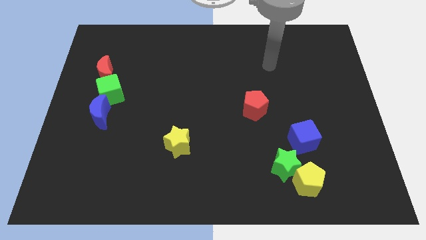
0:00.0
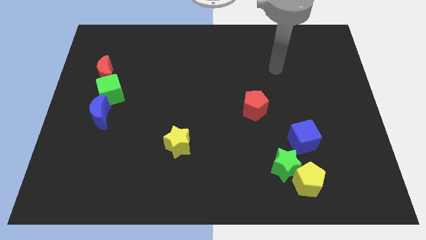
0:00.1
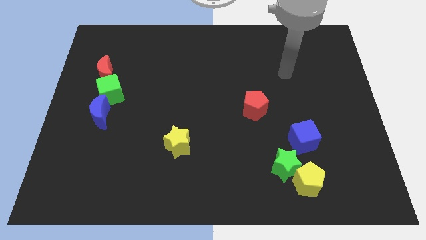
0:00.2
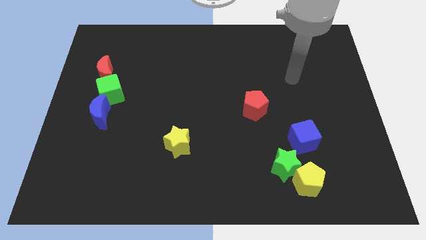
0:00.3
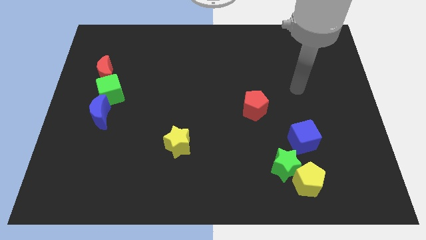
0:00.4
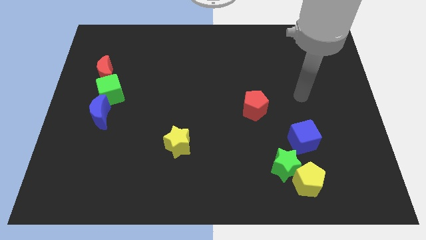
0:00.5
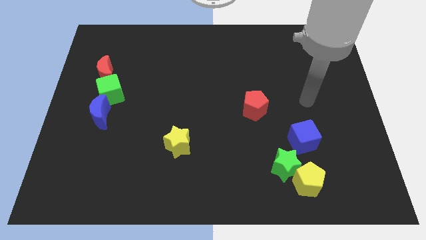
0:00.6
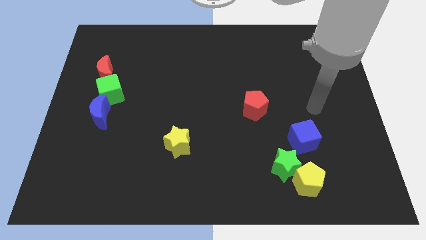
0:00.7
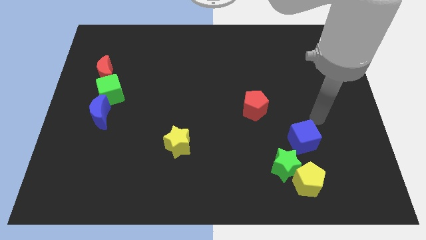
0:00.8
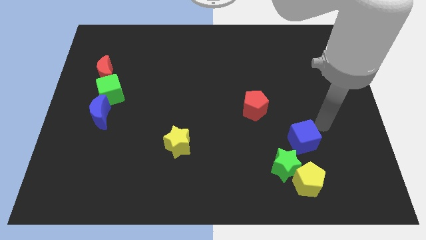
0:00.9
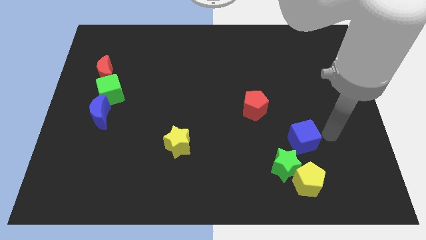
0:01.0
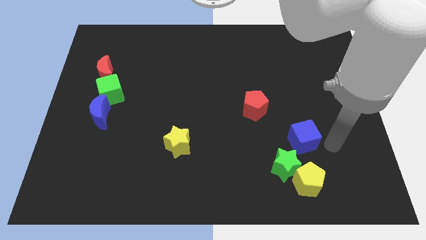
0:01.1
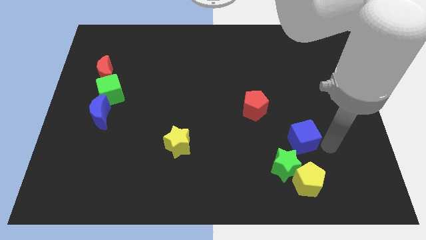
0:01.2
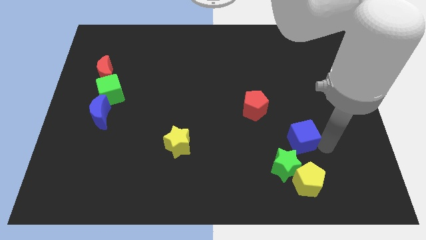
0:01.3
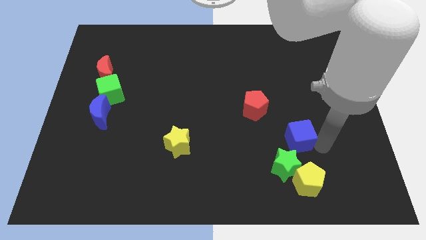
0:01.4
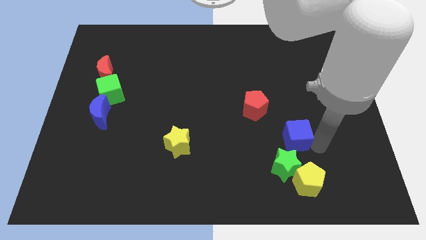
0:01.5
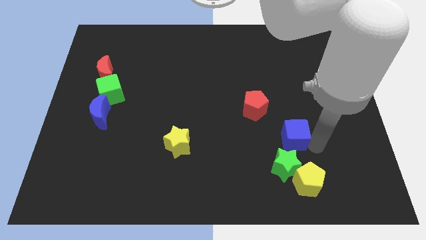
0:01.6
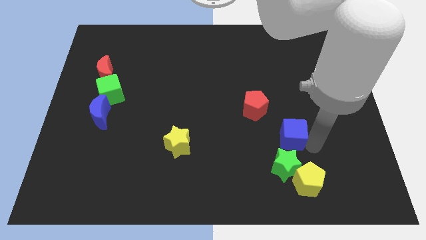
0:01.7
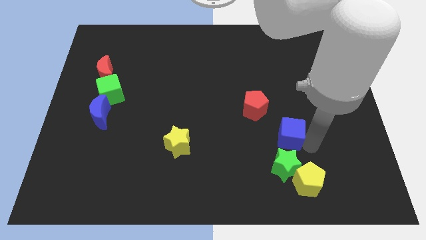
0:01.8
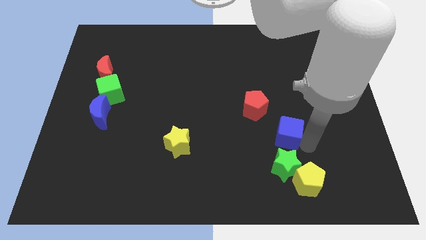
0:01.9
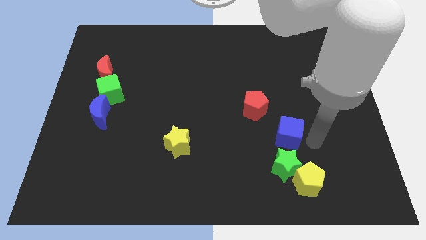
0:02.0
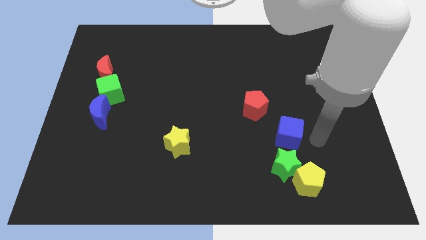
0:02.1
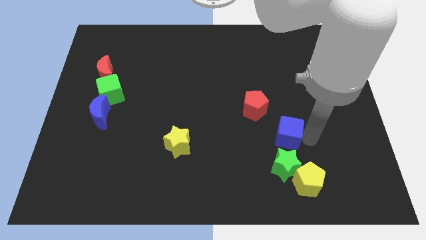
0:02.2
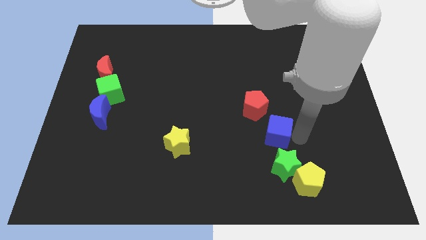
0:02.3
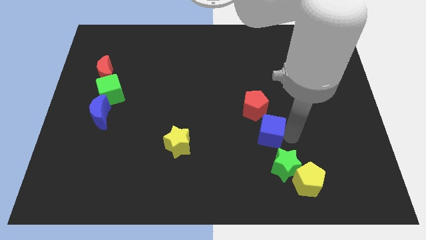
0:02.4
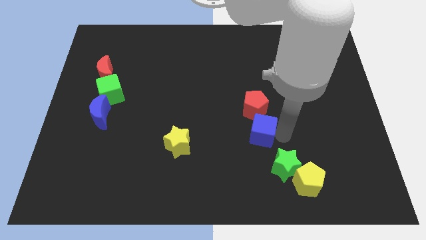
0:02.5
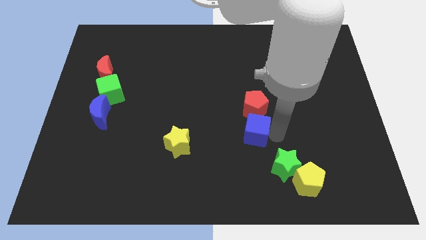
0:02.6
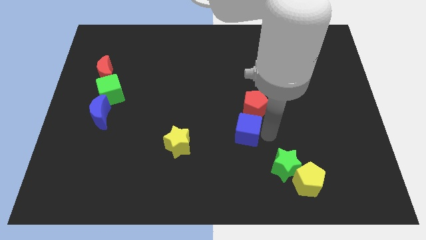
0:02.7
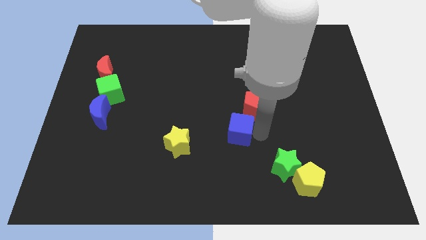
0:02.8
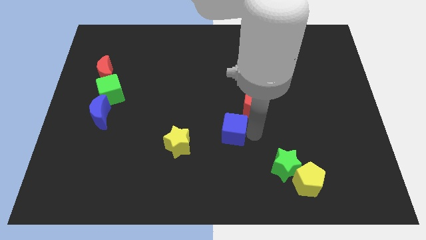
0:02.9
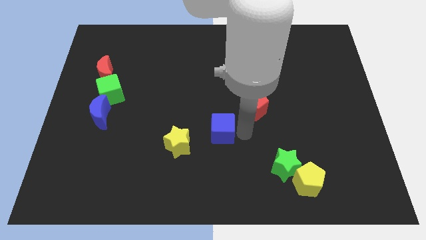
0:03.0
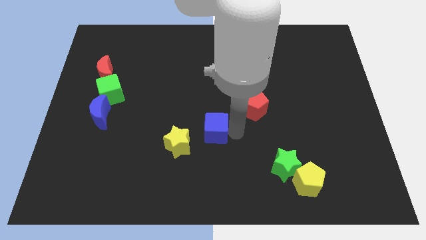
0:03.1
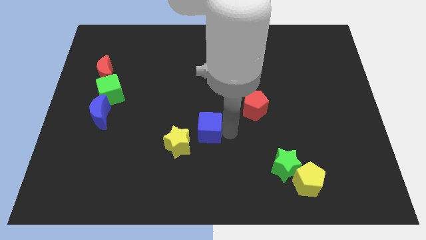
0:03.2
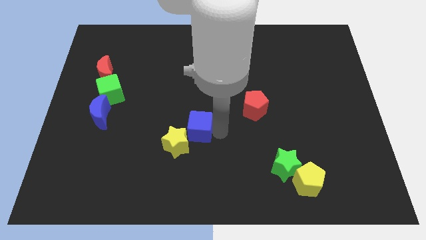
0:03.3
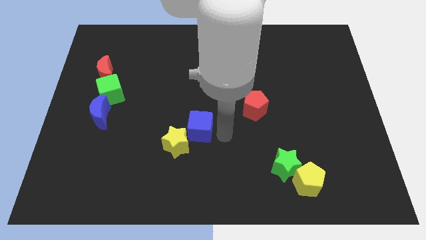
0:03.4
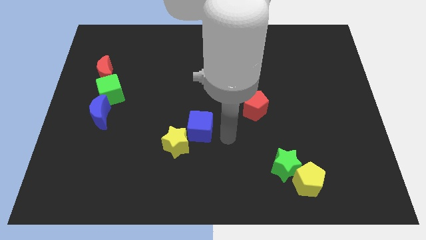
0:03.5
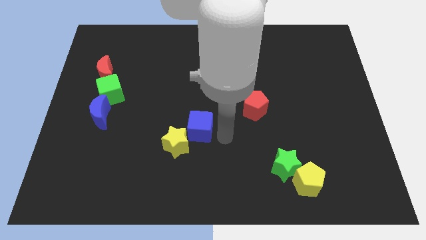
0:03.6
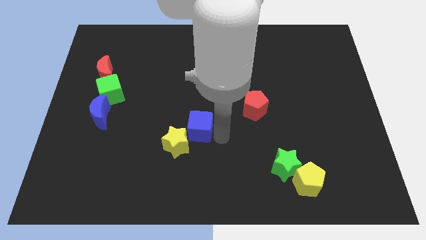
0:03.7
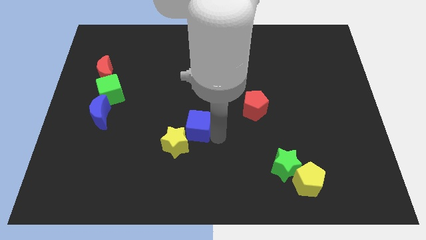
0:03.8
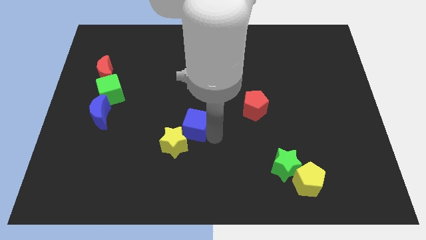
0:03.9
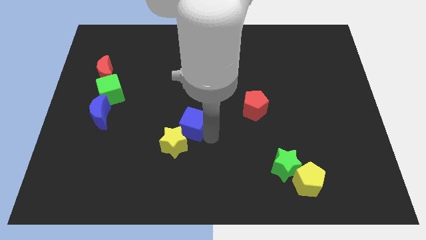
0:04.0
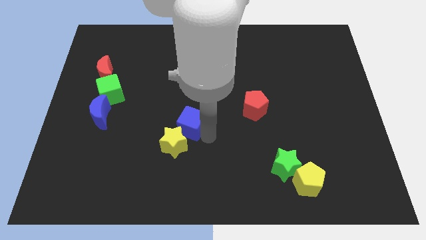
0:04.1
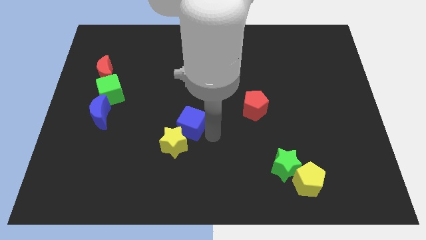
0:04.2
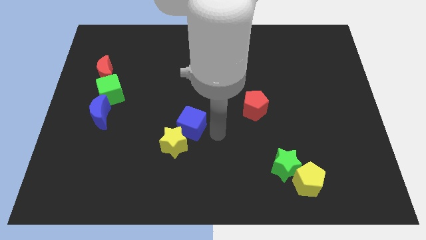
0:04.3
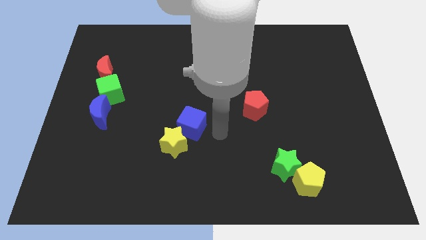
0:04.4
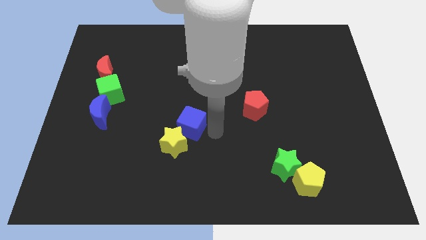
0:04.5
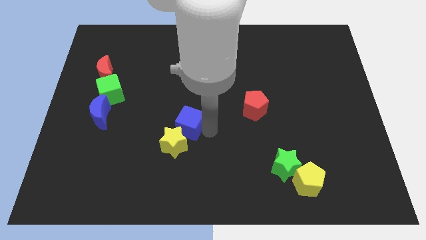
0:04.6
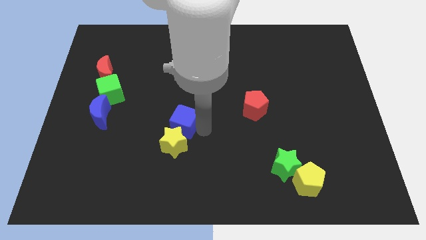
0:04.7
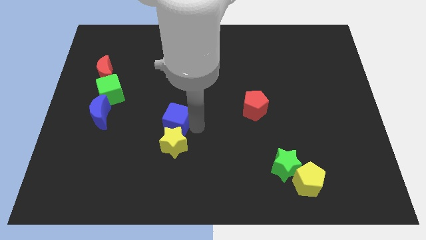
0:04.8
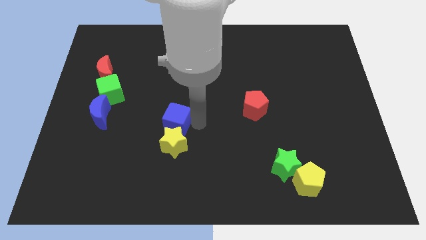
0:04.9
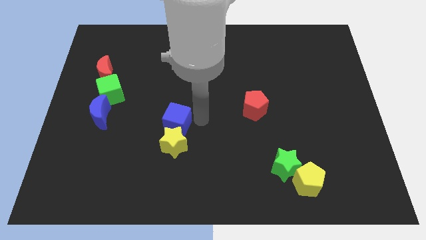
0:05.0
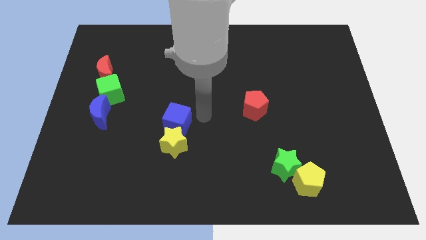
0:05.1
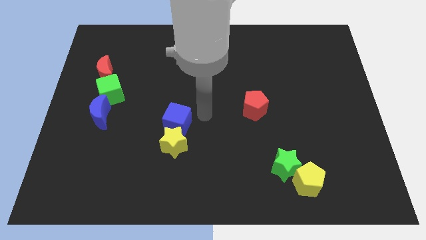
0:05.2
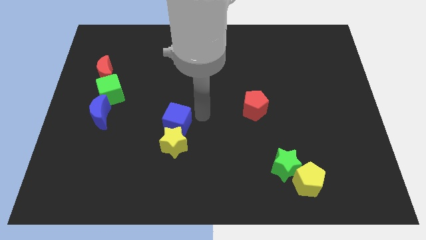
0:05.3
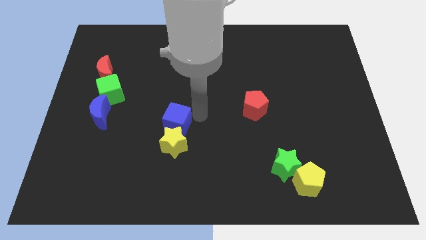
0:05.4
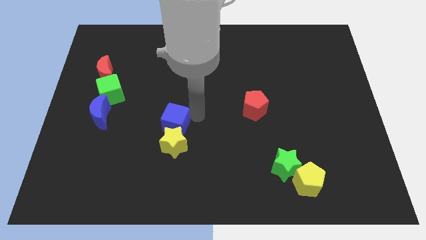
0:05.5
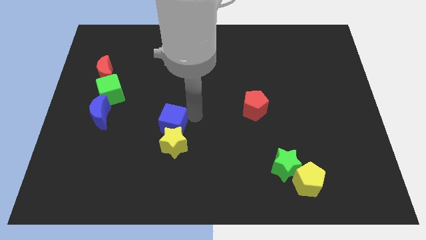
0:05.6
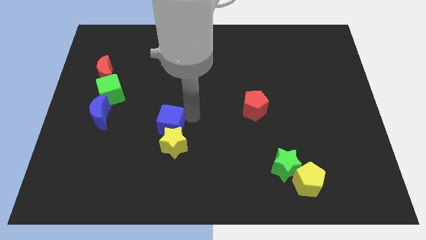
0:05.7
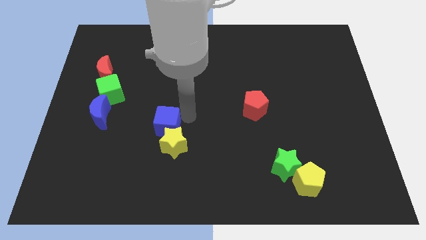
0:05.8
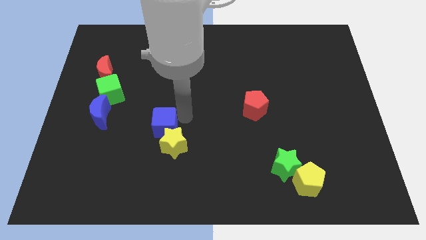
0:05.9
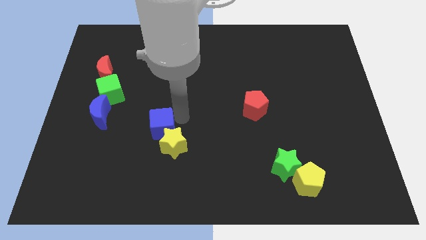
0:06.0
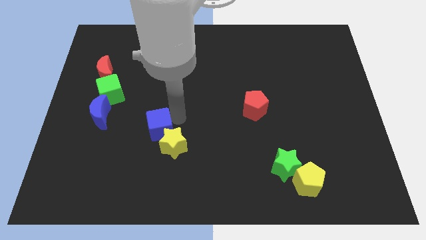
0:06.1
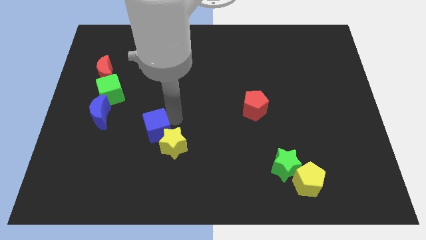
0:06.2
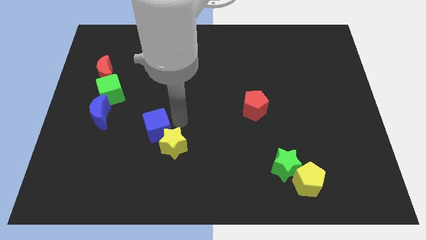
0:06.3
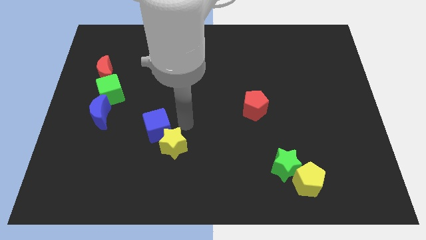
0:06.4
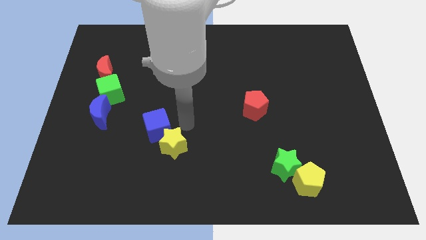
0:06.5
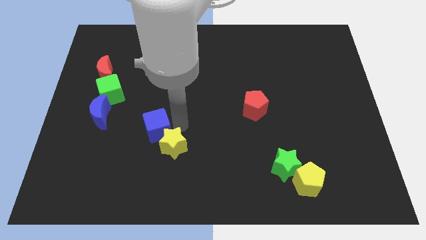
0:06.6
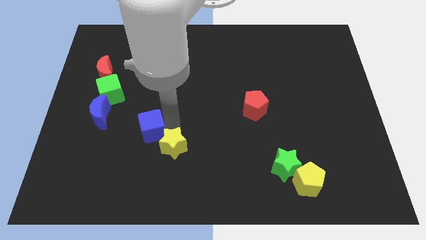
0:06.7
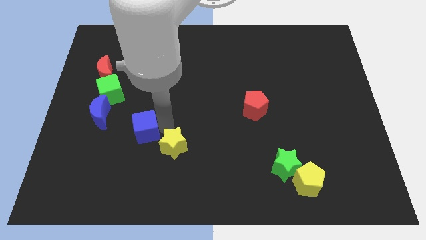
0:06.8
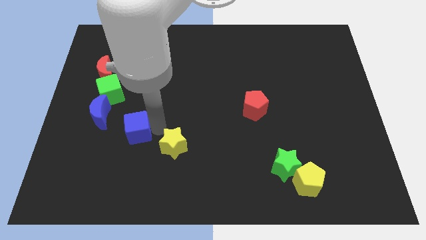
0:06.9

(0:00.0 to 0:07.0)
slide the blue cube to the bottom right side of the blue moon

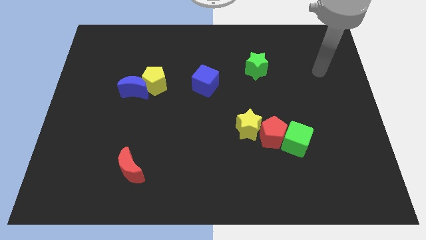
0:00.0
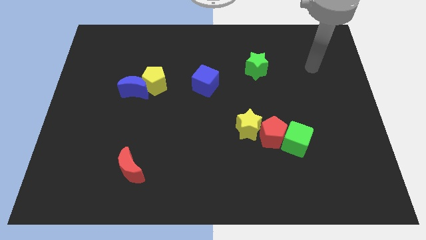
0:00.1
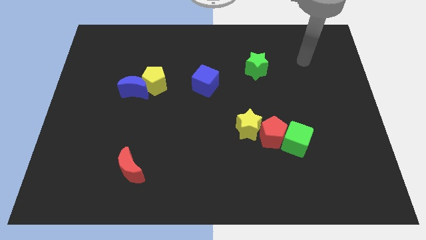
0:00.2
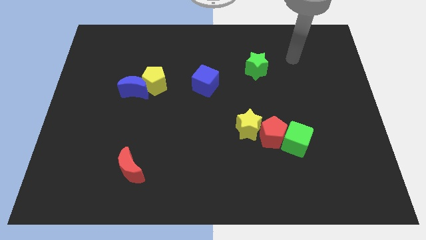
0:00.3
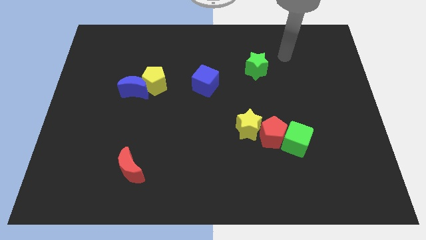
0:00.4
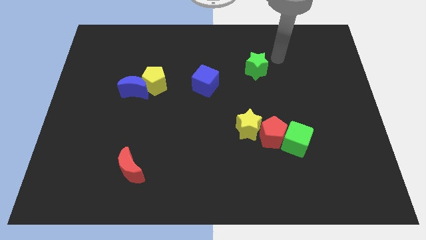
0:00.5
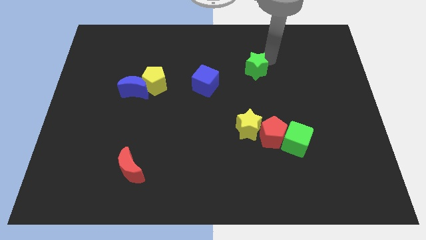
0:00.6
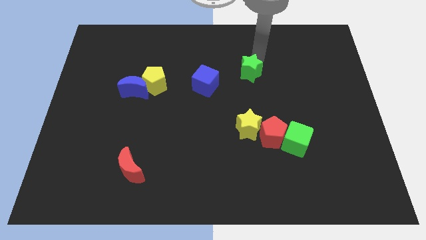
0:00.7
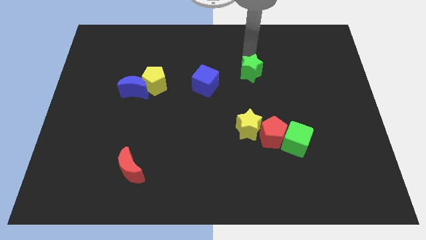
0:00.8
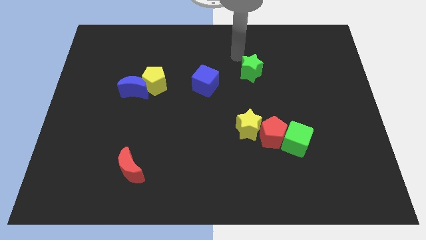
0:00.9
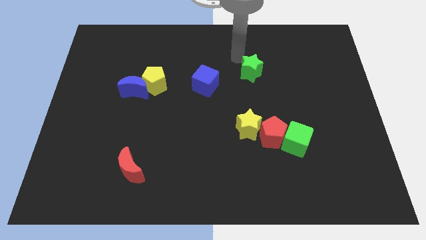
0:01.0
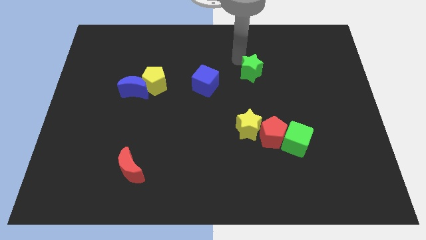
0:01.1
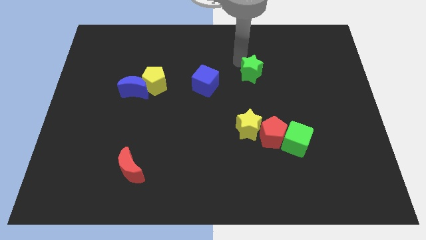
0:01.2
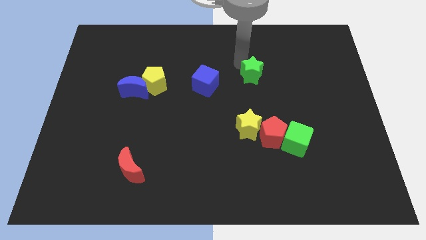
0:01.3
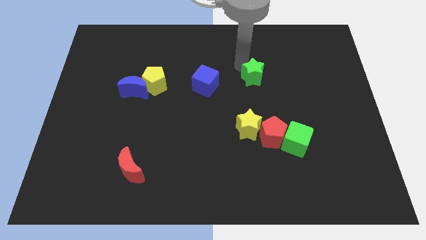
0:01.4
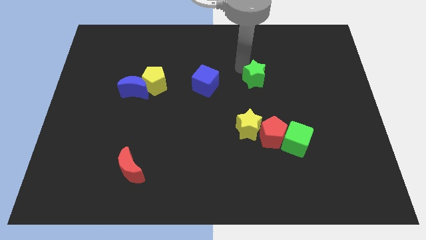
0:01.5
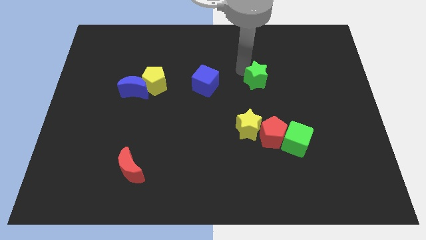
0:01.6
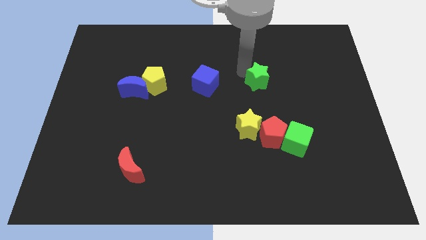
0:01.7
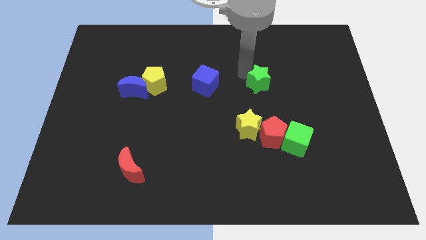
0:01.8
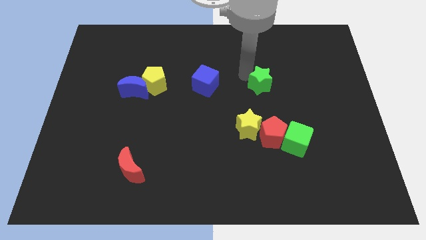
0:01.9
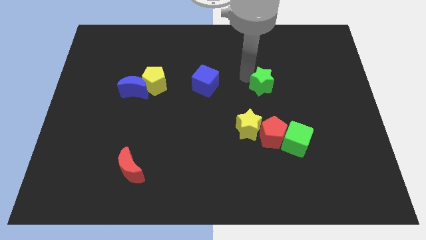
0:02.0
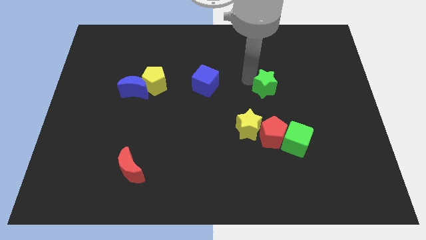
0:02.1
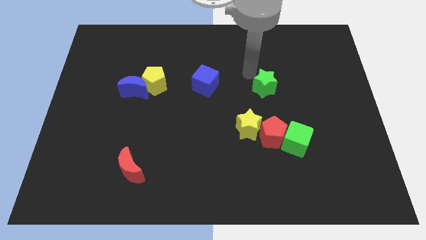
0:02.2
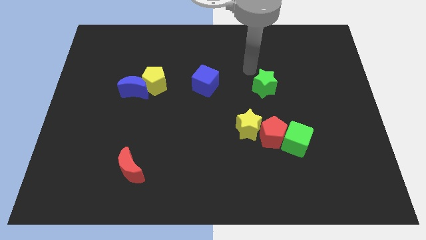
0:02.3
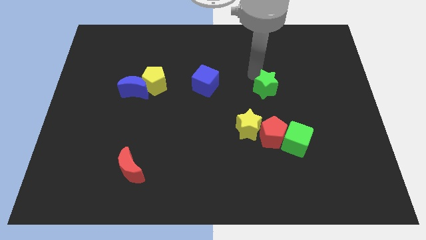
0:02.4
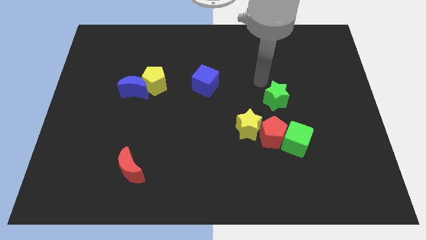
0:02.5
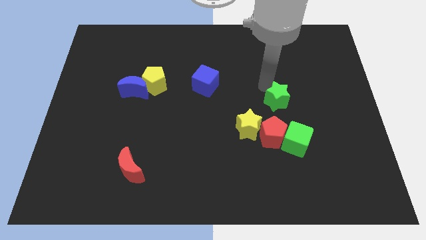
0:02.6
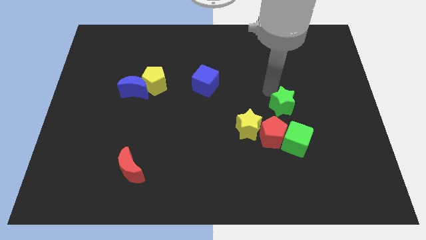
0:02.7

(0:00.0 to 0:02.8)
slide the green star to the top right side of the red pentagon
